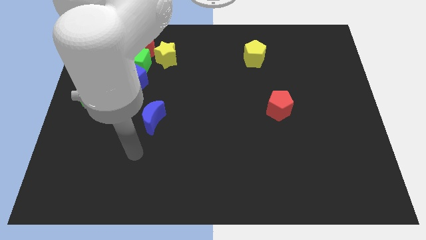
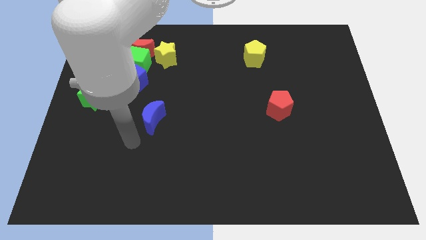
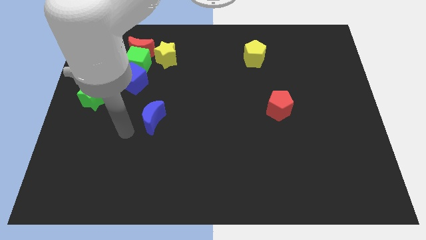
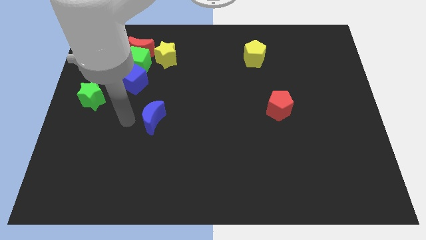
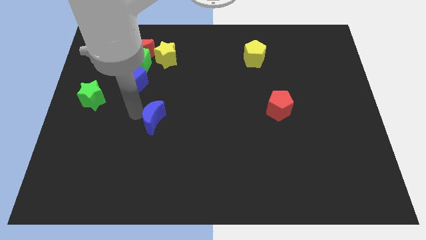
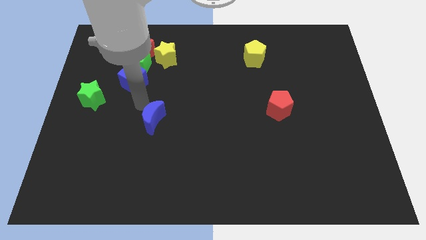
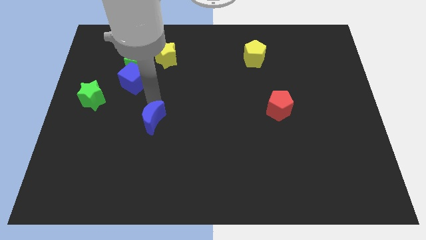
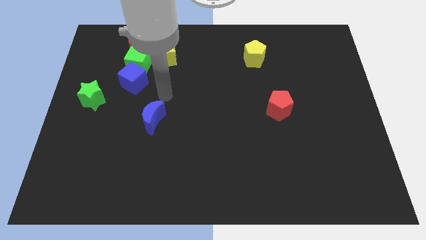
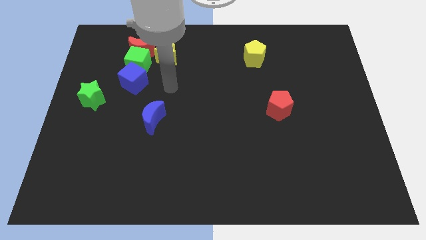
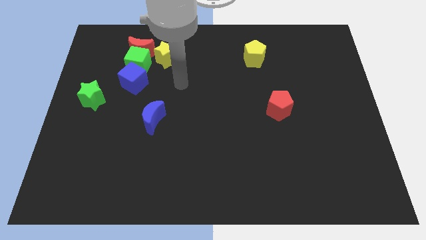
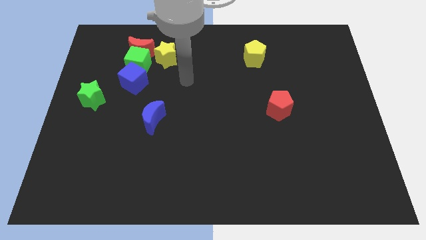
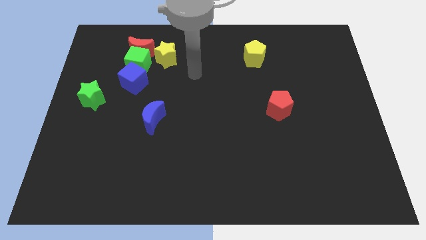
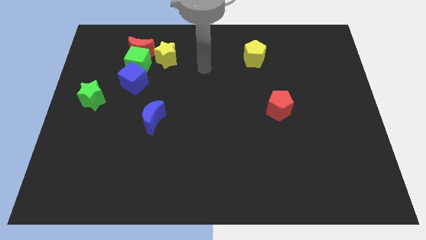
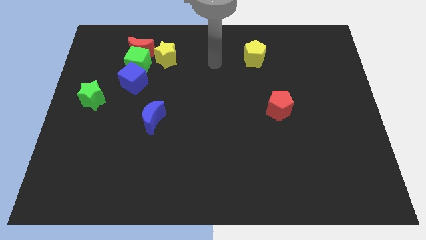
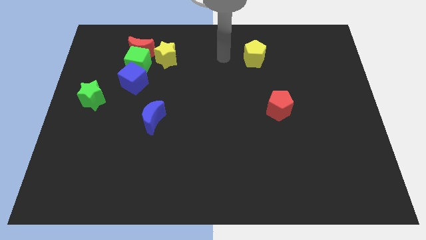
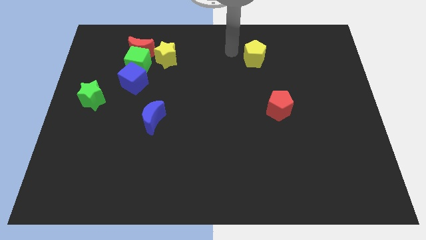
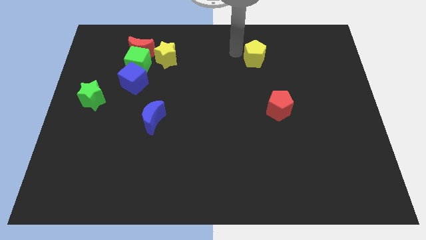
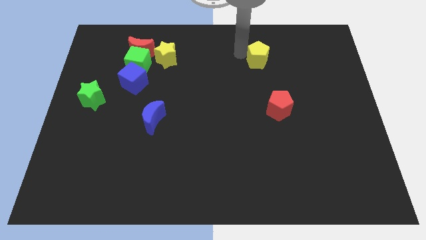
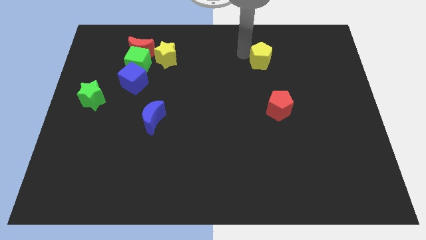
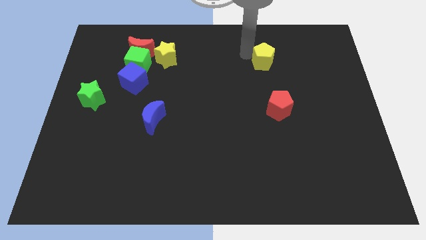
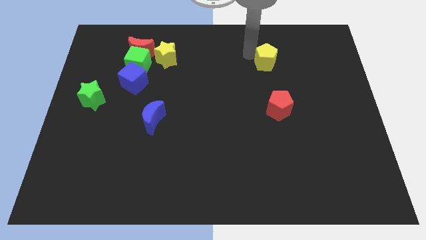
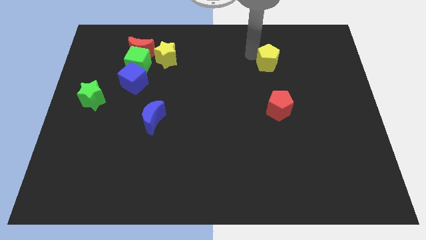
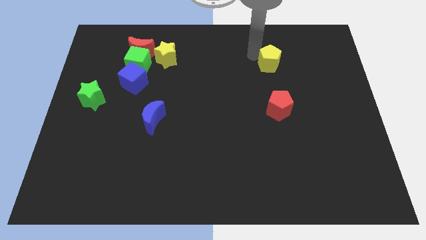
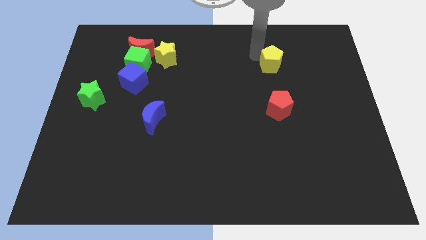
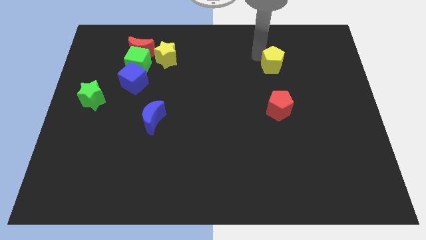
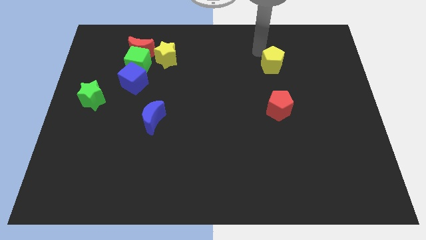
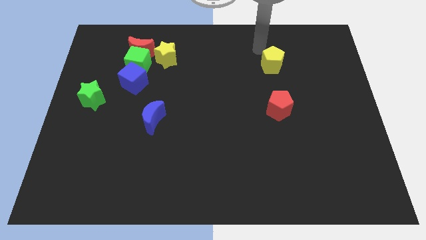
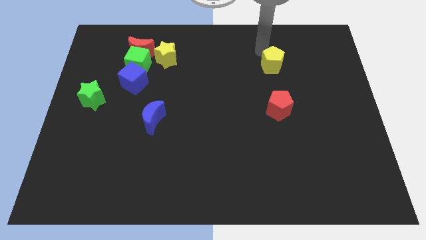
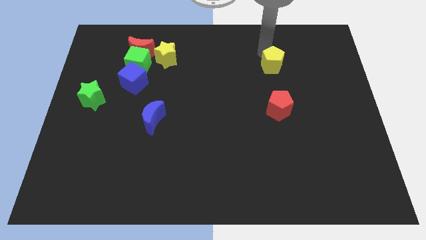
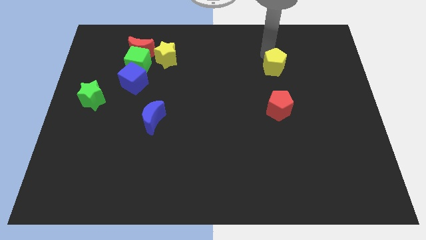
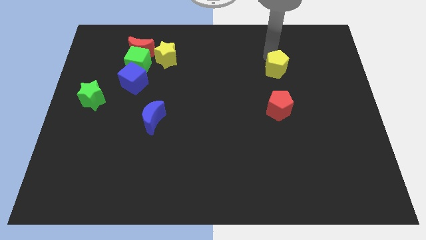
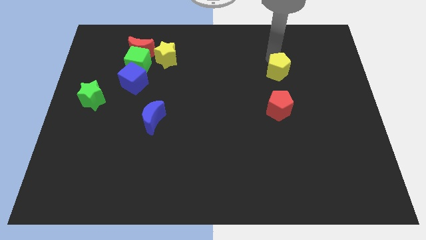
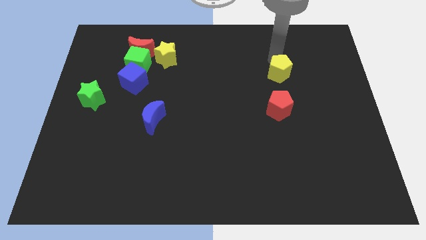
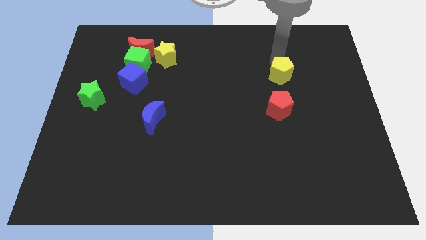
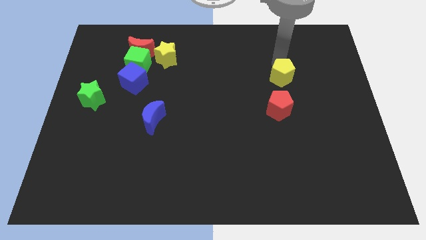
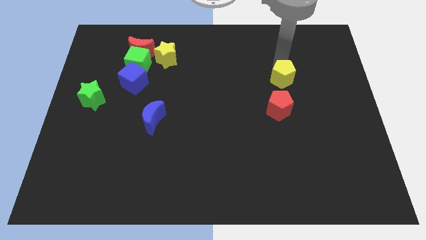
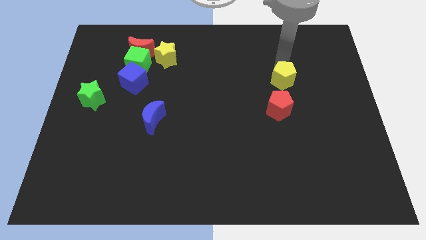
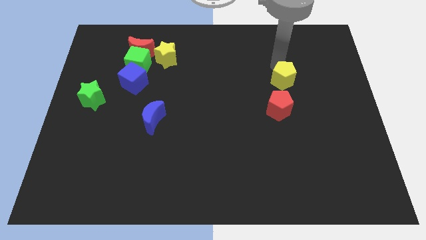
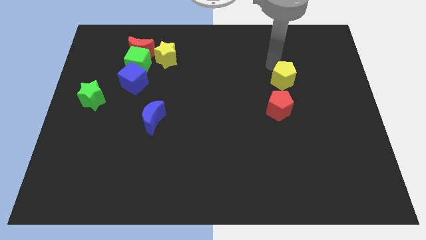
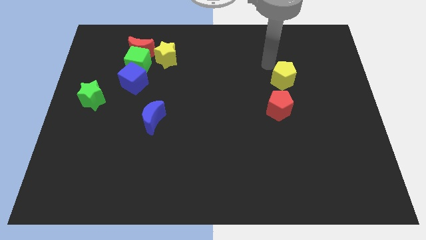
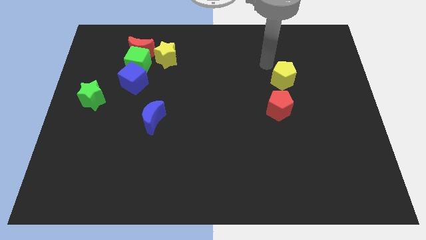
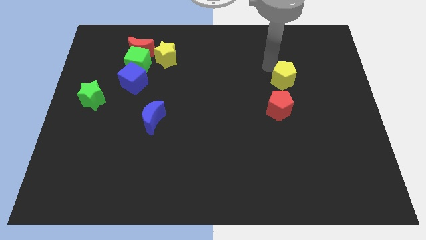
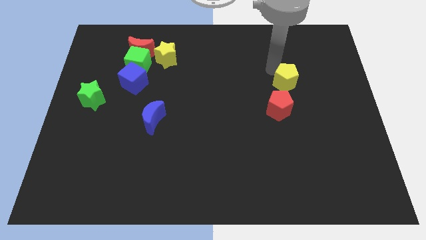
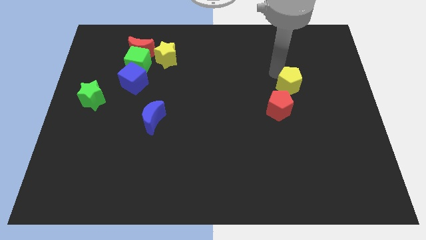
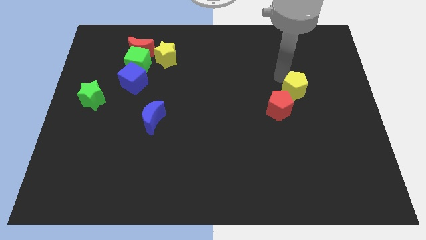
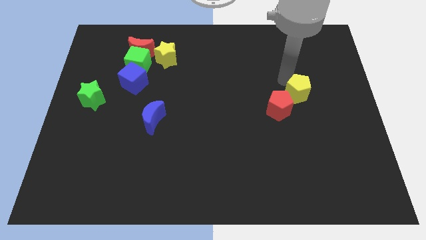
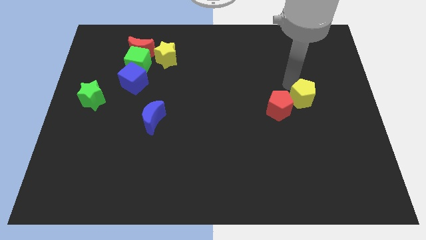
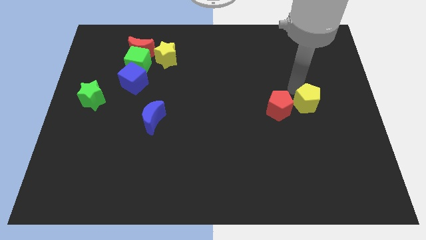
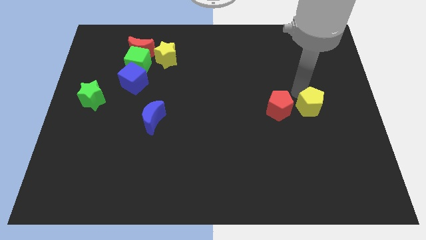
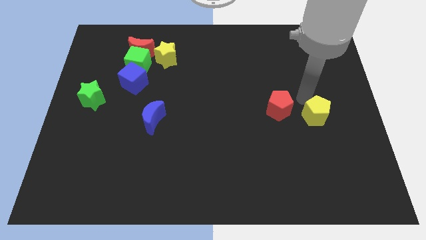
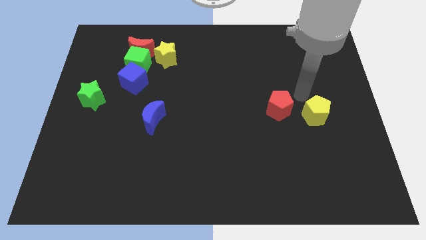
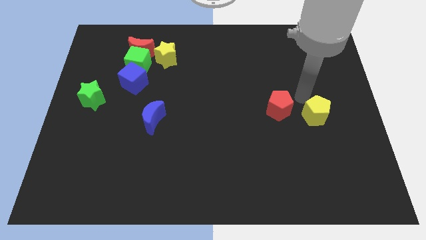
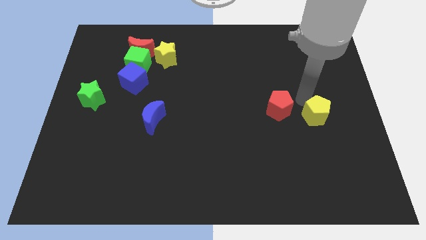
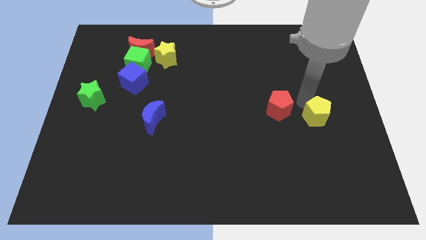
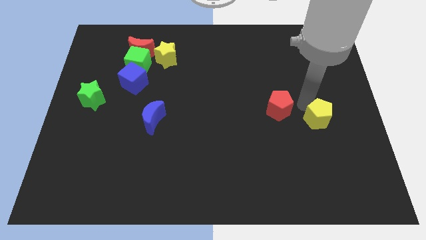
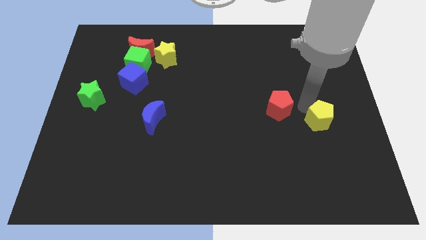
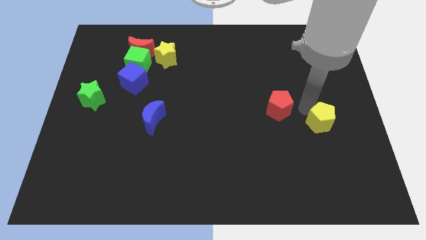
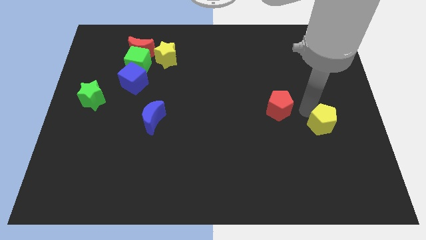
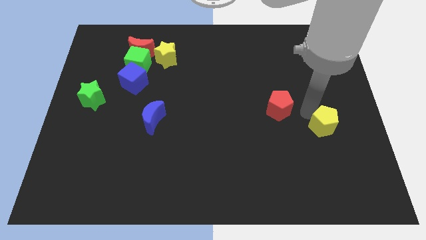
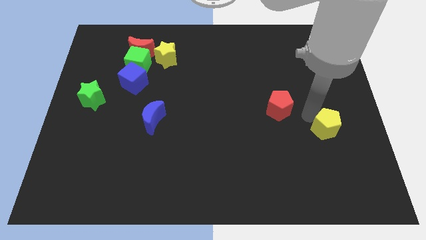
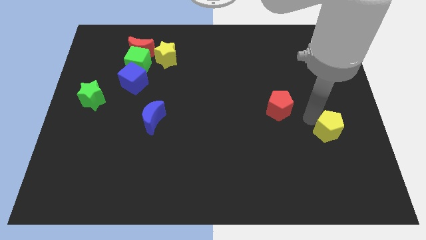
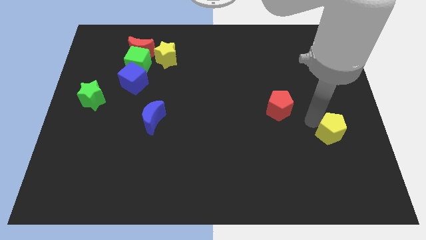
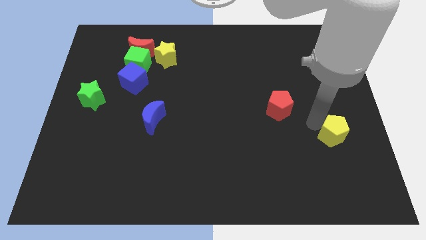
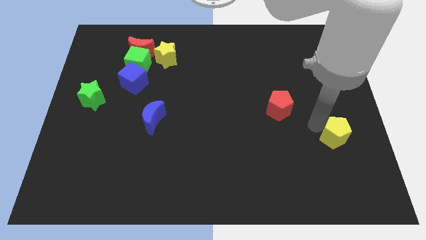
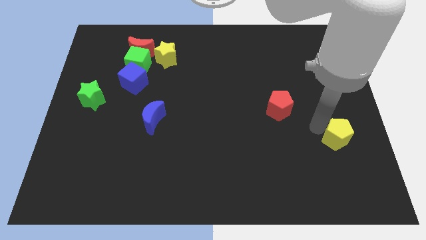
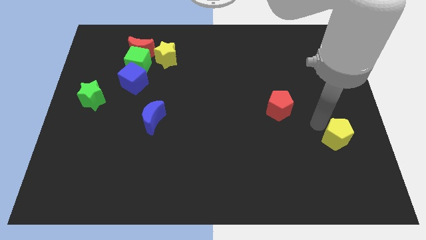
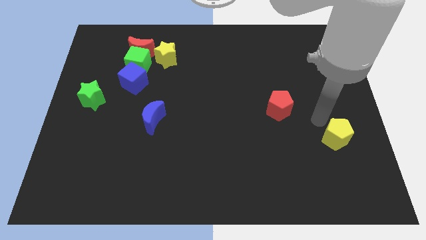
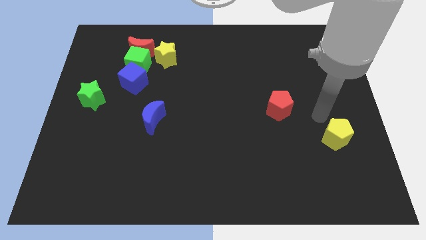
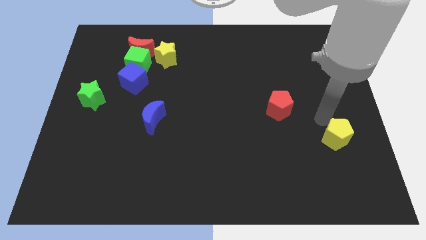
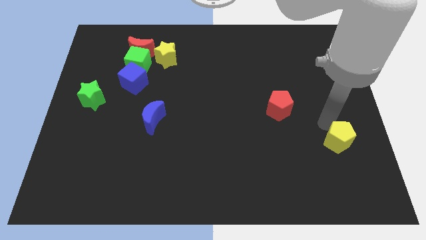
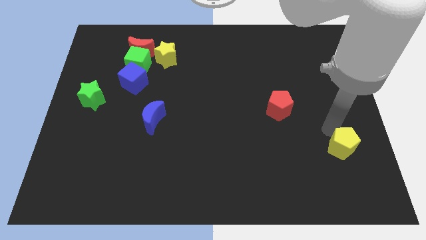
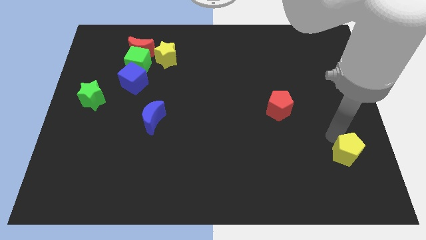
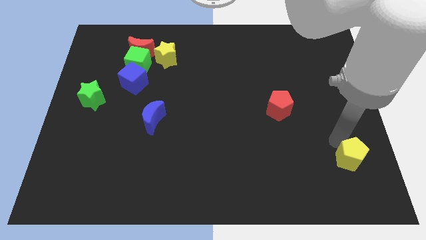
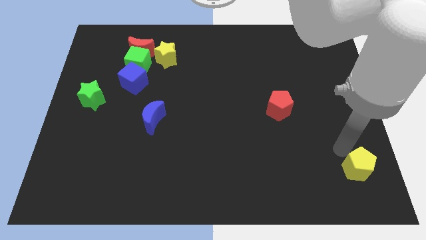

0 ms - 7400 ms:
slide the yellow pentagon to the bottom right of the board
